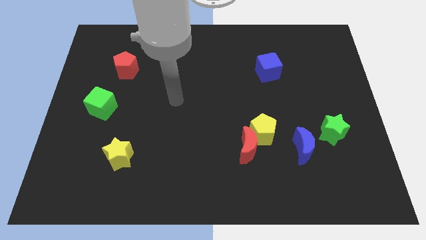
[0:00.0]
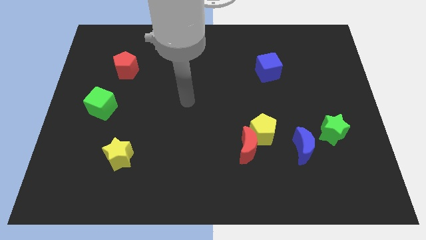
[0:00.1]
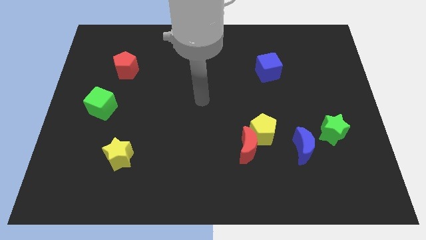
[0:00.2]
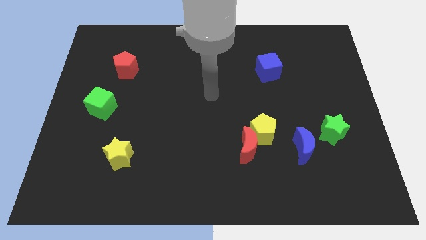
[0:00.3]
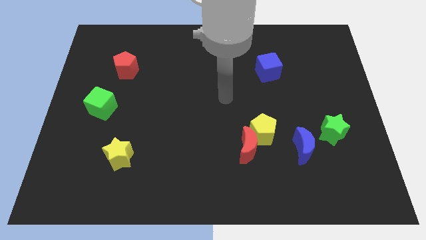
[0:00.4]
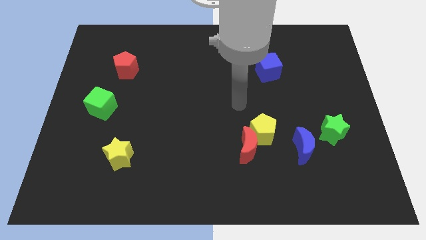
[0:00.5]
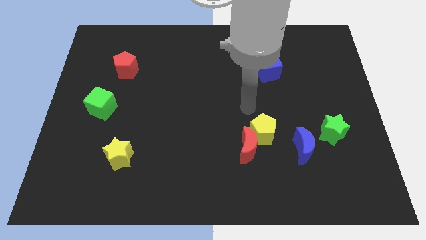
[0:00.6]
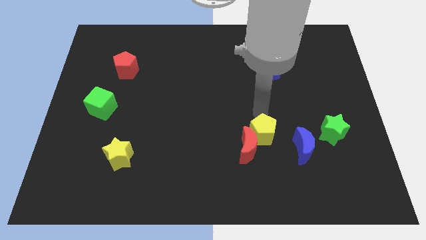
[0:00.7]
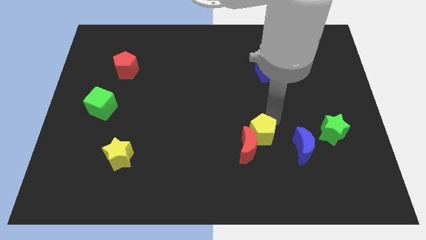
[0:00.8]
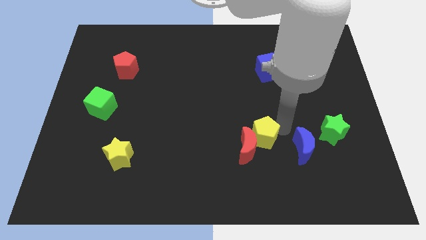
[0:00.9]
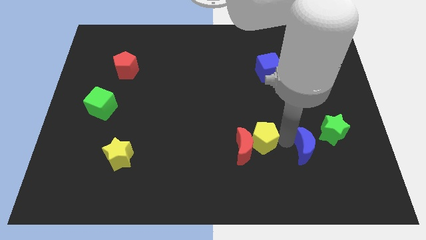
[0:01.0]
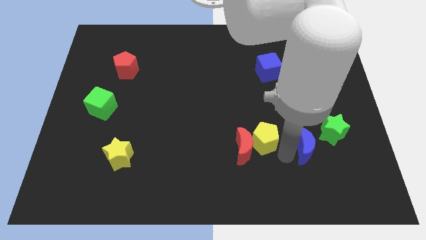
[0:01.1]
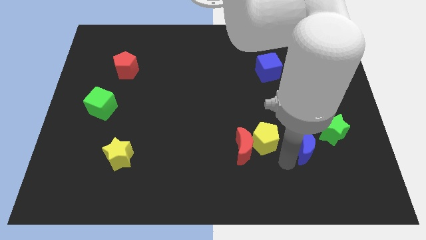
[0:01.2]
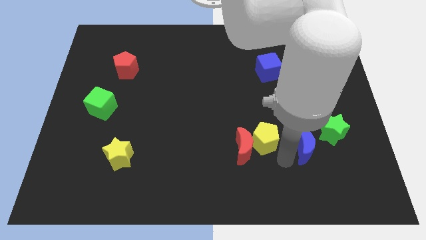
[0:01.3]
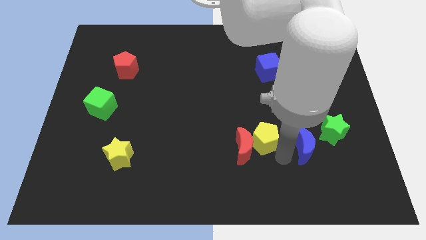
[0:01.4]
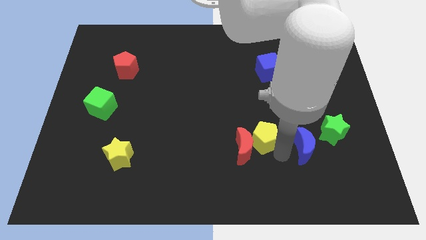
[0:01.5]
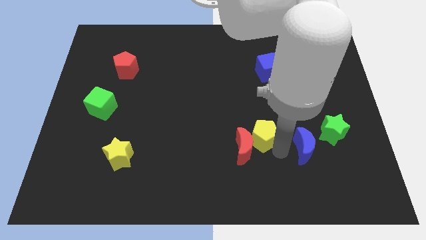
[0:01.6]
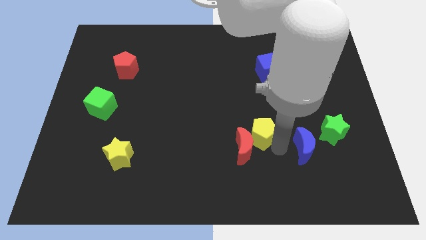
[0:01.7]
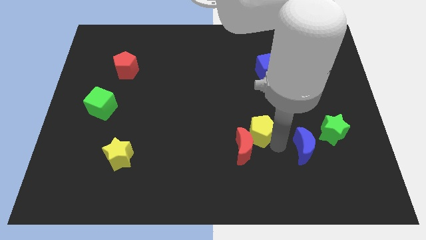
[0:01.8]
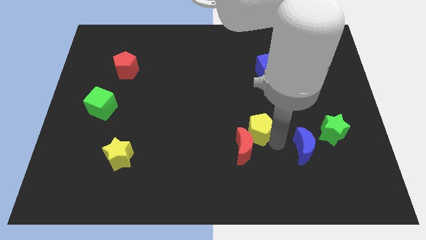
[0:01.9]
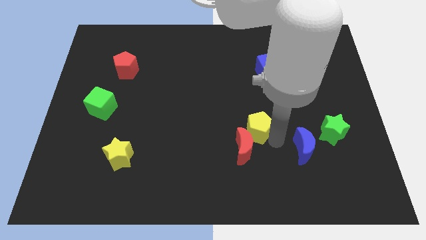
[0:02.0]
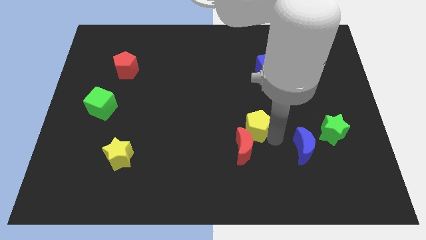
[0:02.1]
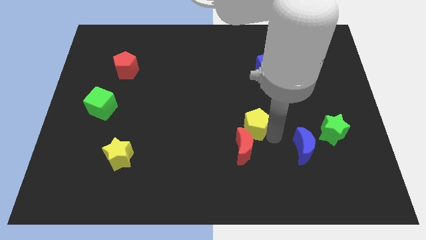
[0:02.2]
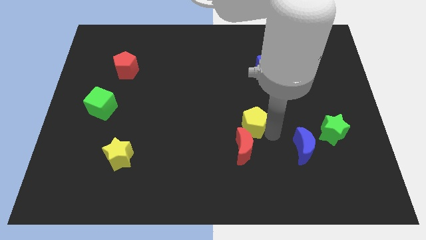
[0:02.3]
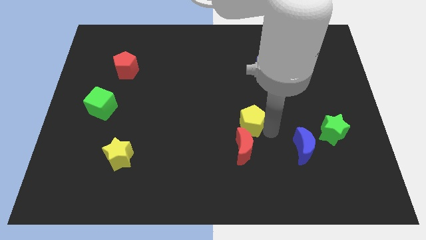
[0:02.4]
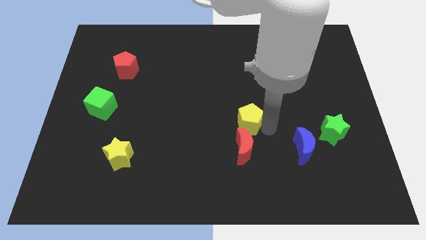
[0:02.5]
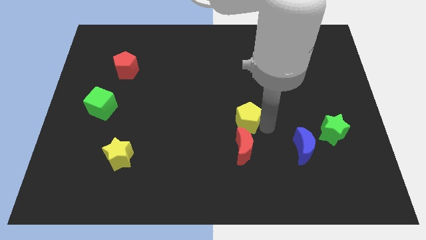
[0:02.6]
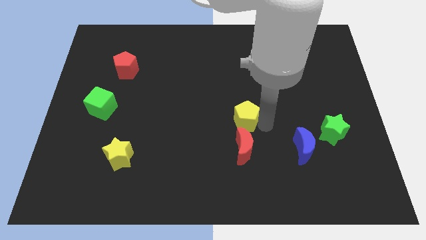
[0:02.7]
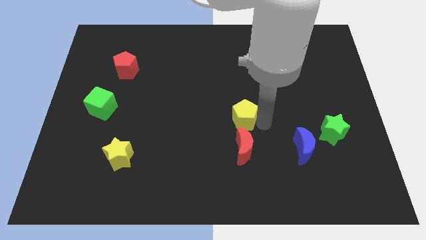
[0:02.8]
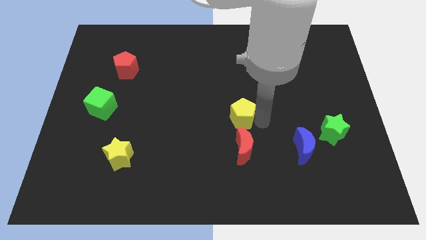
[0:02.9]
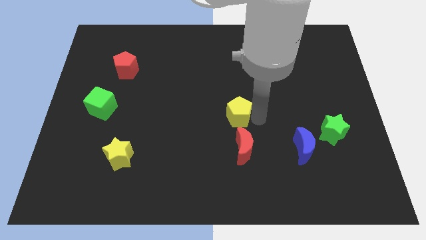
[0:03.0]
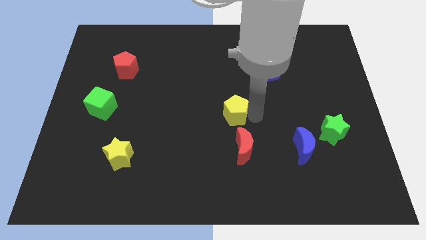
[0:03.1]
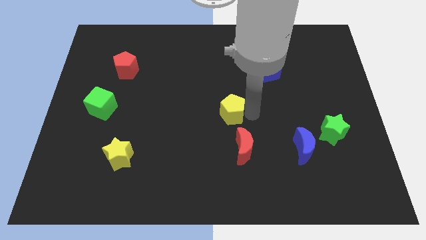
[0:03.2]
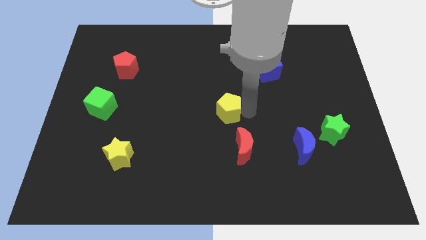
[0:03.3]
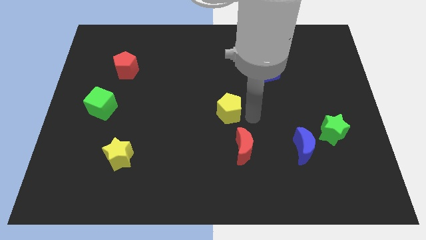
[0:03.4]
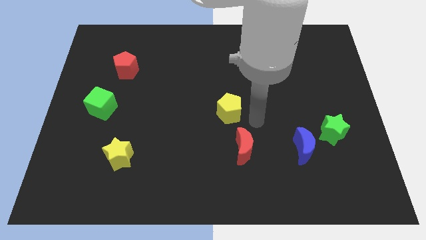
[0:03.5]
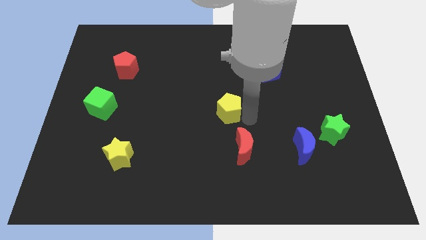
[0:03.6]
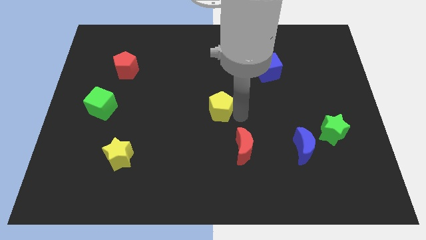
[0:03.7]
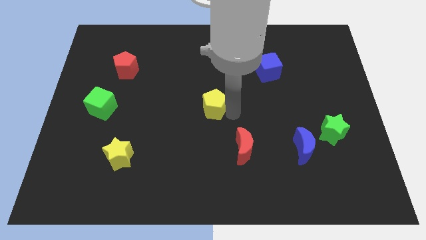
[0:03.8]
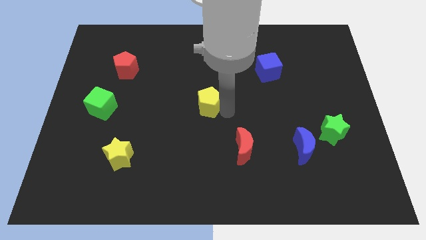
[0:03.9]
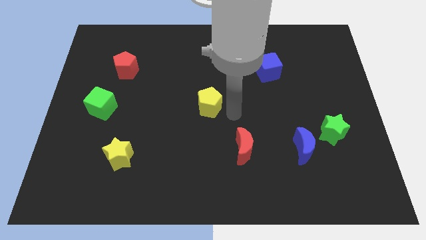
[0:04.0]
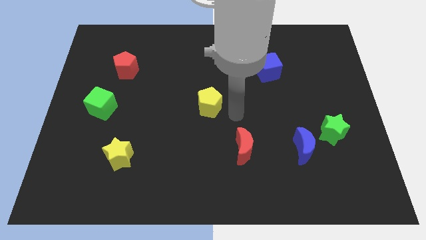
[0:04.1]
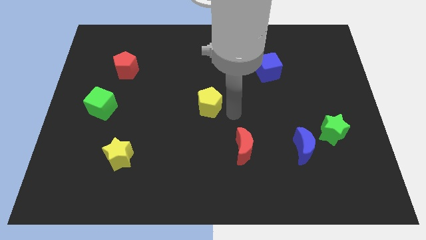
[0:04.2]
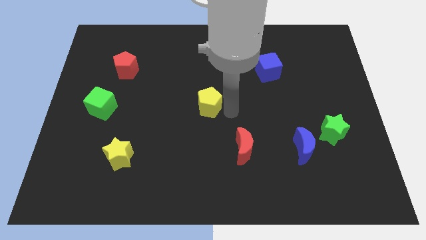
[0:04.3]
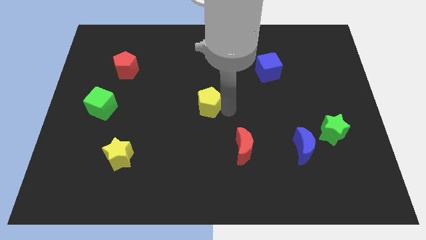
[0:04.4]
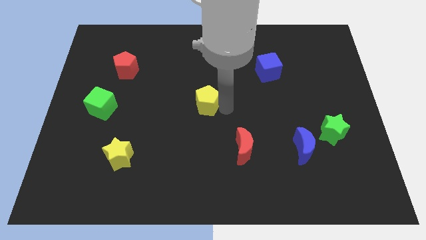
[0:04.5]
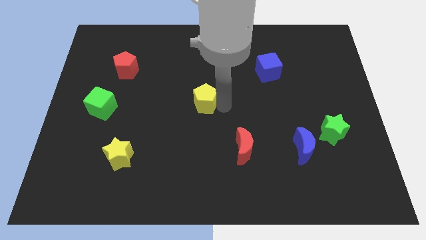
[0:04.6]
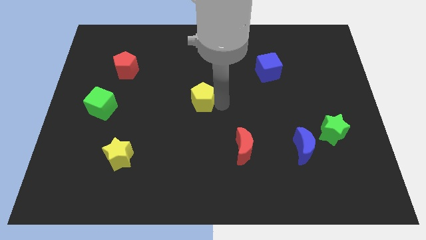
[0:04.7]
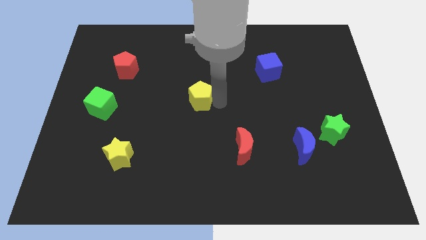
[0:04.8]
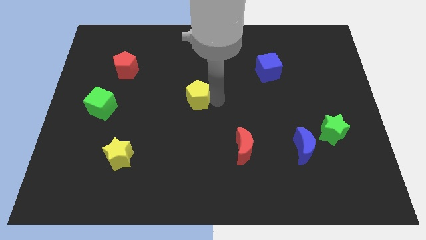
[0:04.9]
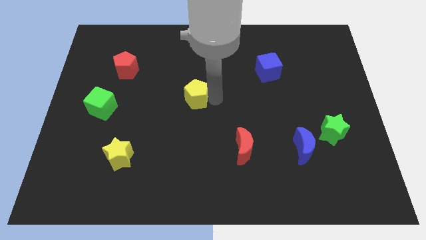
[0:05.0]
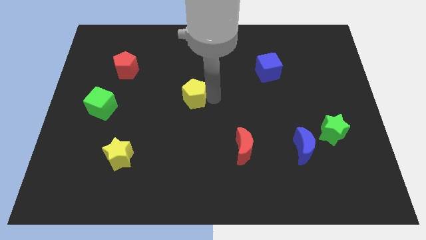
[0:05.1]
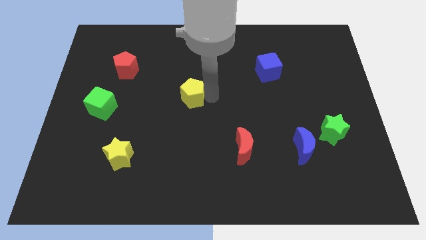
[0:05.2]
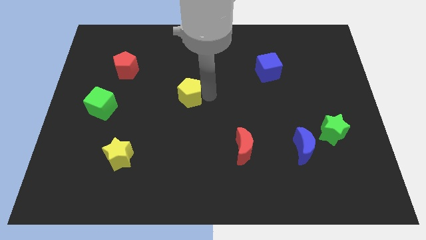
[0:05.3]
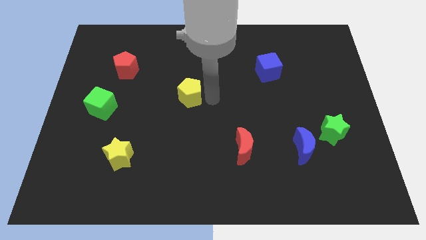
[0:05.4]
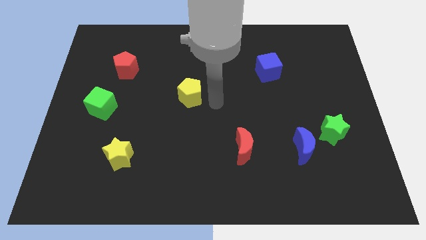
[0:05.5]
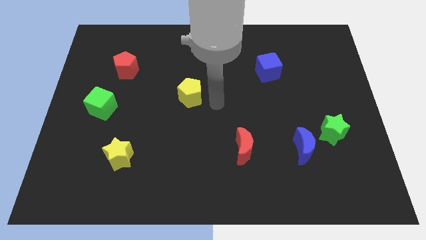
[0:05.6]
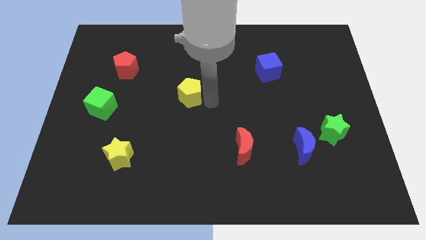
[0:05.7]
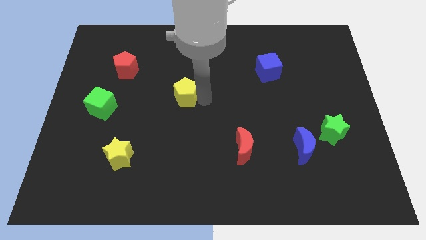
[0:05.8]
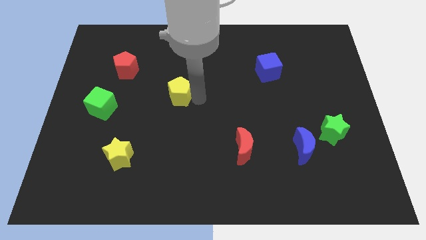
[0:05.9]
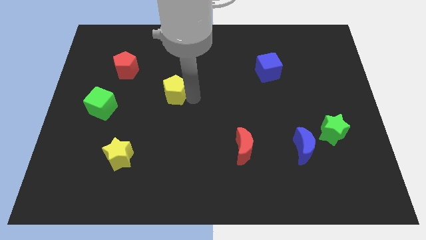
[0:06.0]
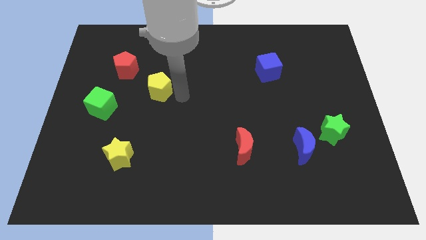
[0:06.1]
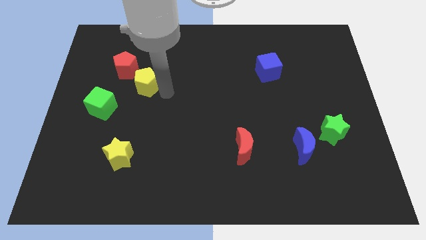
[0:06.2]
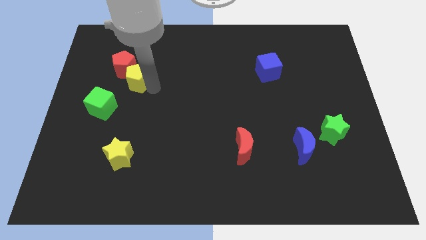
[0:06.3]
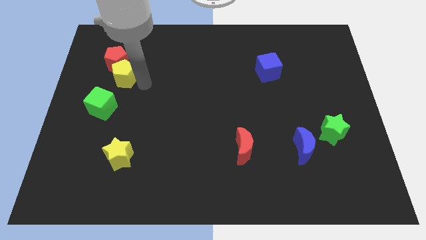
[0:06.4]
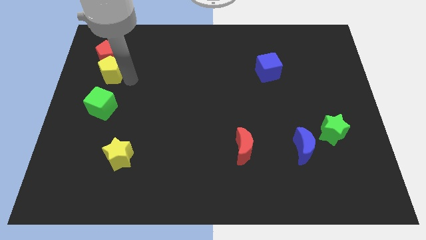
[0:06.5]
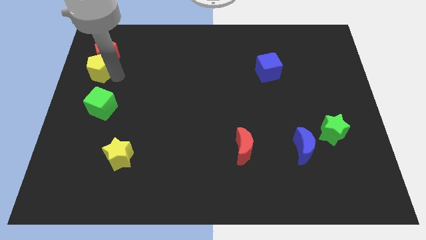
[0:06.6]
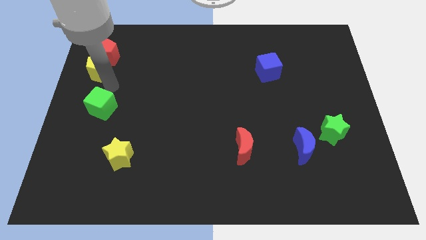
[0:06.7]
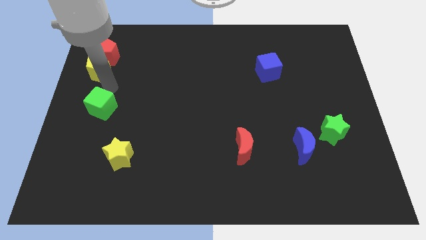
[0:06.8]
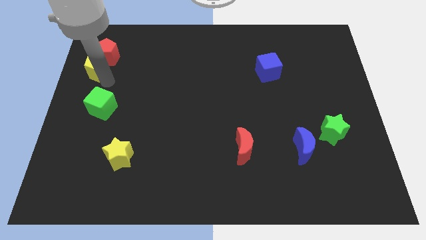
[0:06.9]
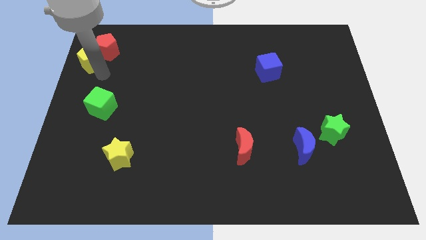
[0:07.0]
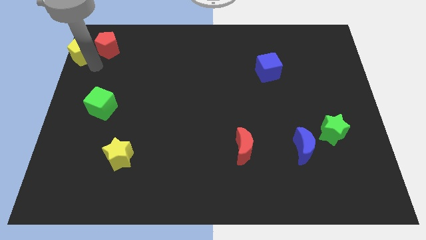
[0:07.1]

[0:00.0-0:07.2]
put the yellow pentagon to the upper left corner
